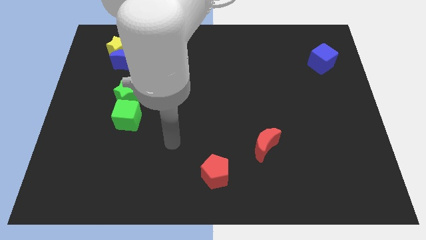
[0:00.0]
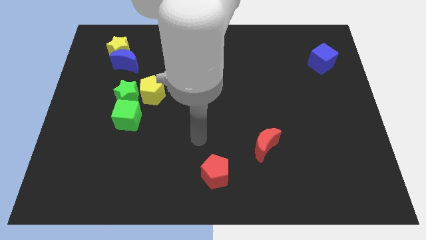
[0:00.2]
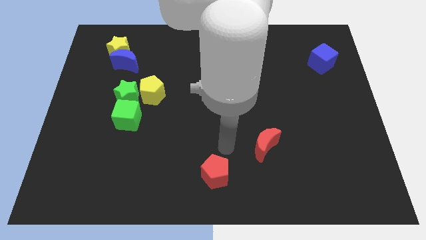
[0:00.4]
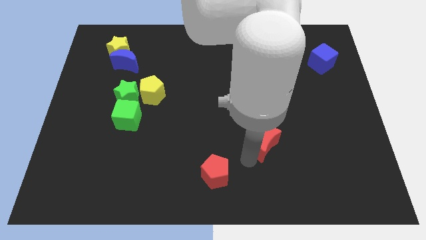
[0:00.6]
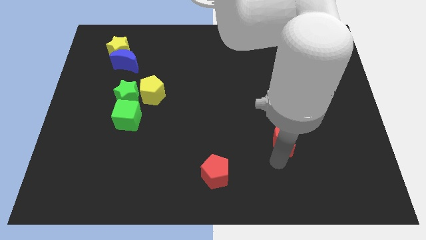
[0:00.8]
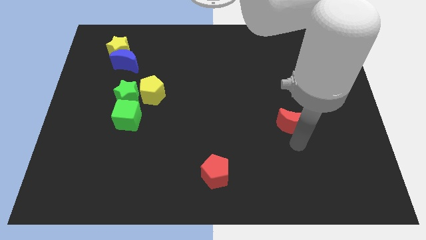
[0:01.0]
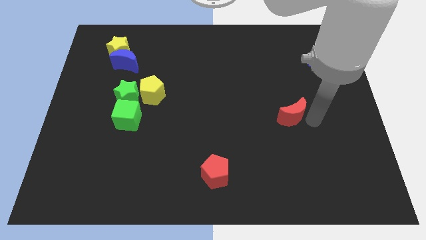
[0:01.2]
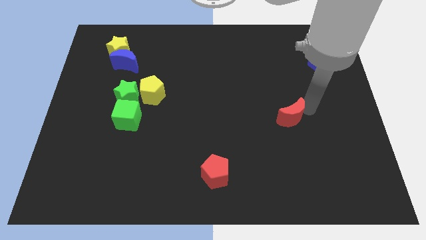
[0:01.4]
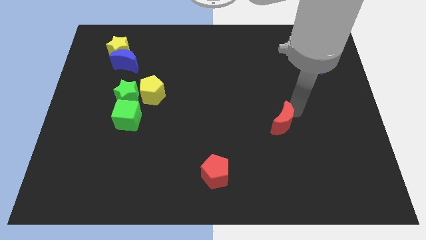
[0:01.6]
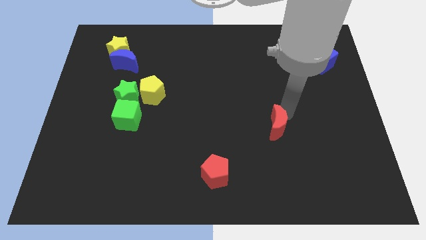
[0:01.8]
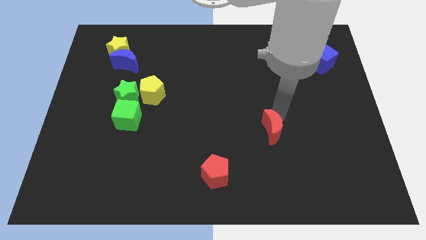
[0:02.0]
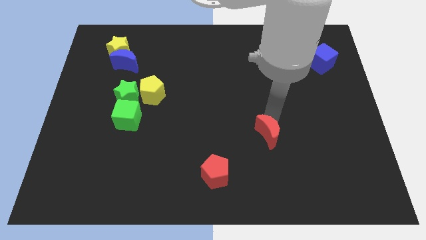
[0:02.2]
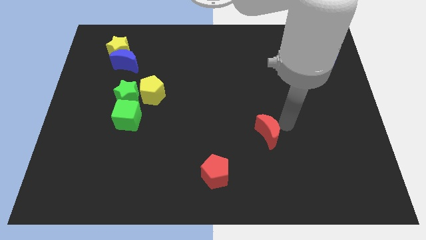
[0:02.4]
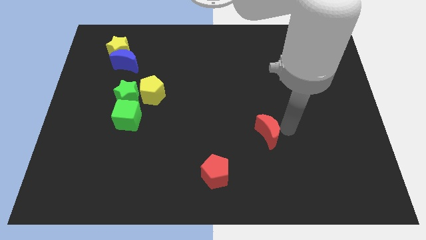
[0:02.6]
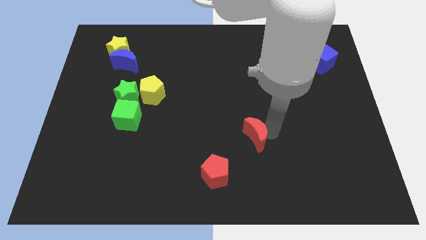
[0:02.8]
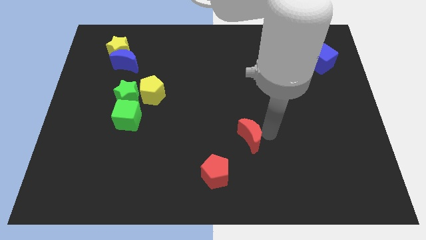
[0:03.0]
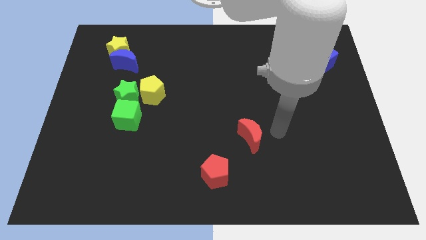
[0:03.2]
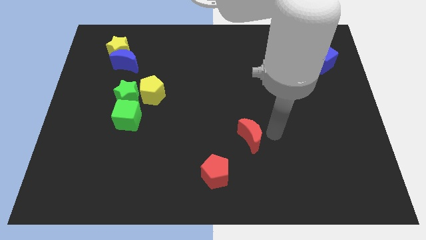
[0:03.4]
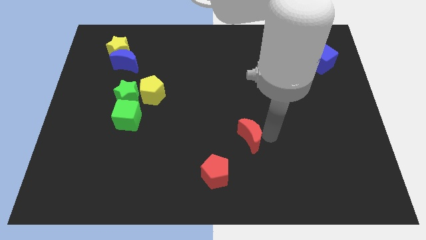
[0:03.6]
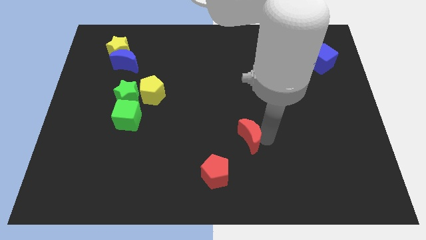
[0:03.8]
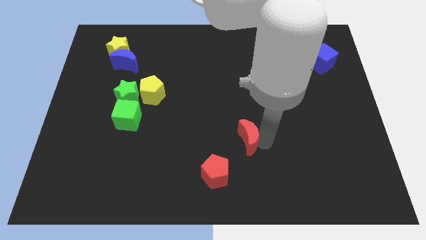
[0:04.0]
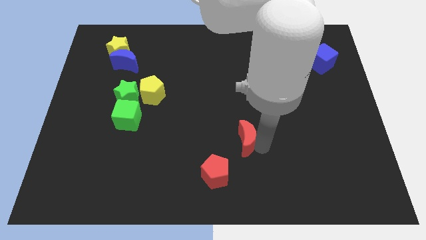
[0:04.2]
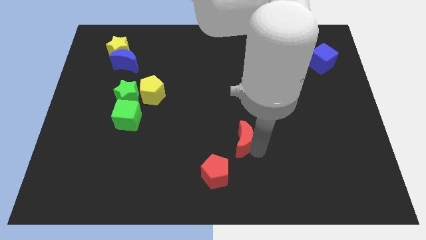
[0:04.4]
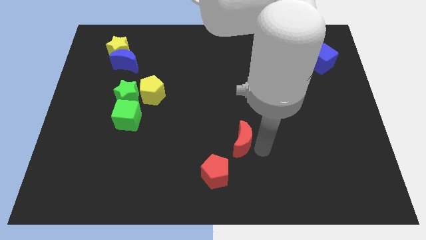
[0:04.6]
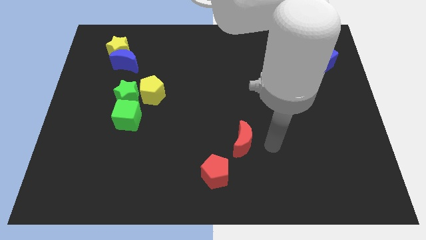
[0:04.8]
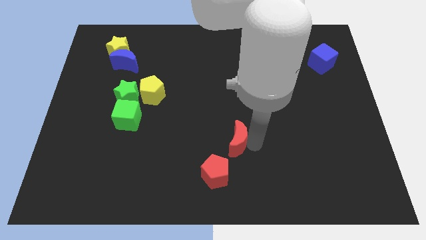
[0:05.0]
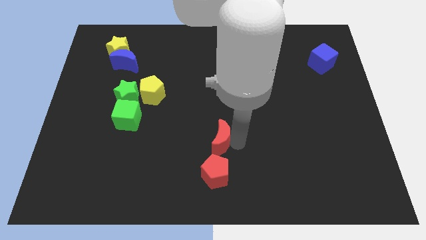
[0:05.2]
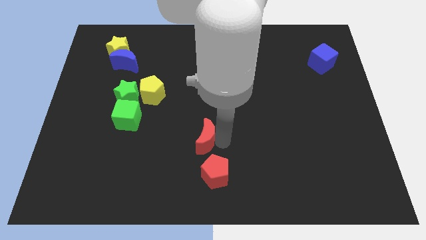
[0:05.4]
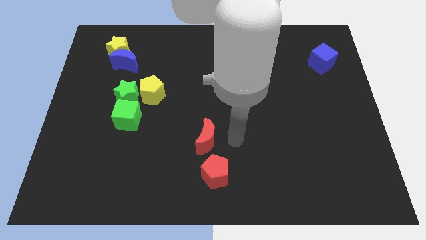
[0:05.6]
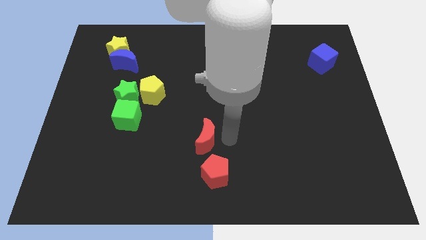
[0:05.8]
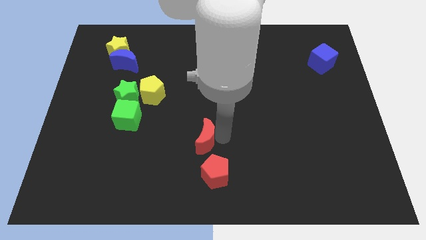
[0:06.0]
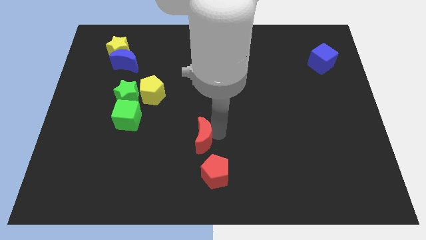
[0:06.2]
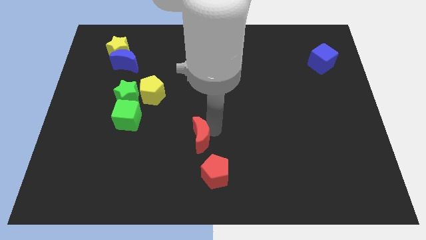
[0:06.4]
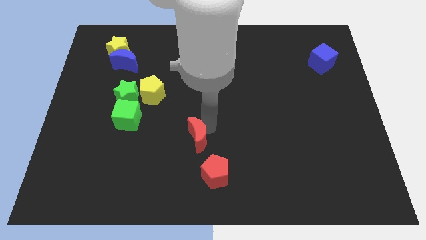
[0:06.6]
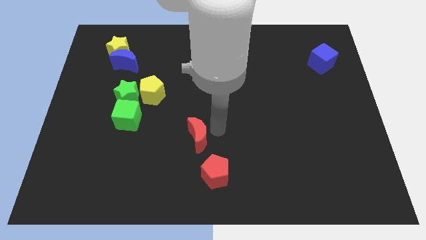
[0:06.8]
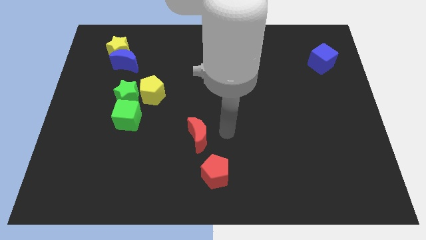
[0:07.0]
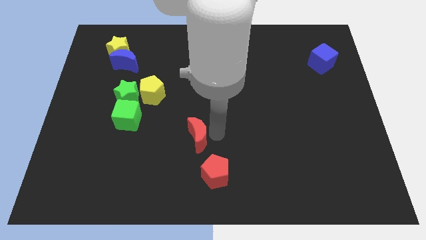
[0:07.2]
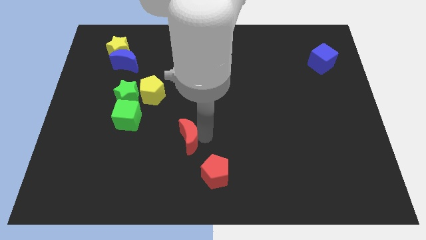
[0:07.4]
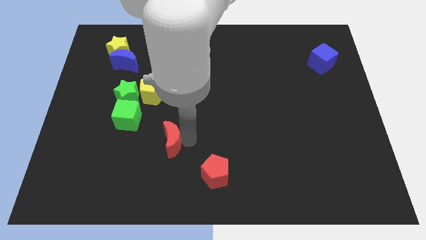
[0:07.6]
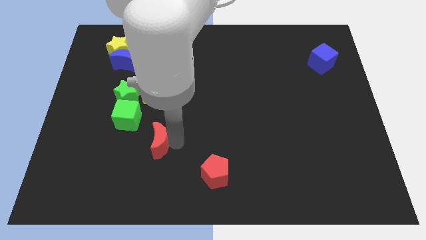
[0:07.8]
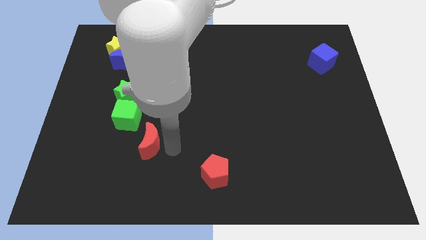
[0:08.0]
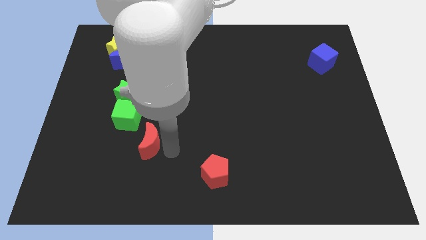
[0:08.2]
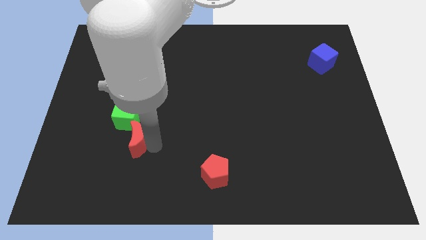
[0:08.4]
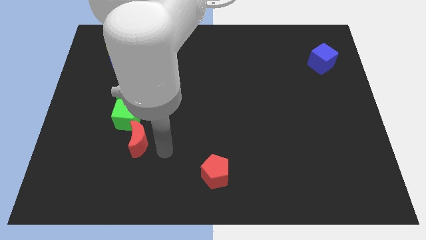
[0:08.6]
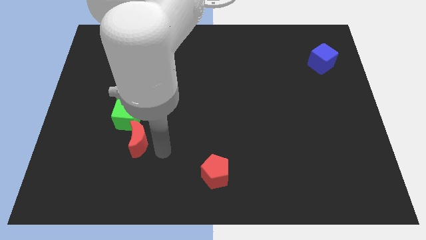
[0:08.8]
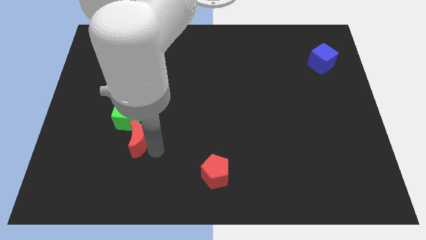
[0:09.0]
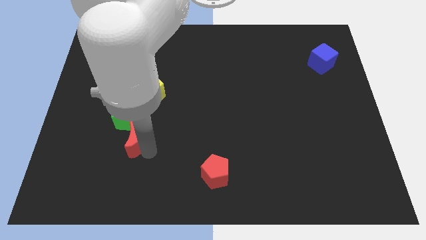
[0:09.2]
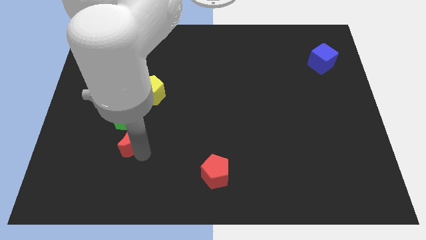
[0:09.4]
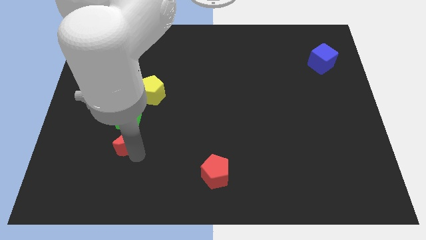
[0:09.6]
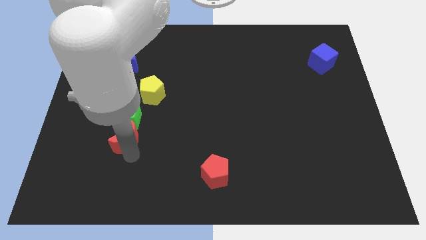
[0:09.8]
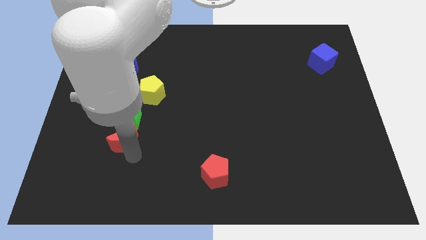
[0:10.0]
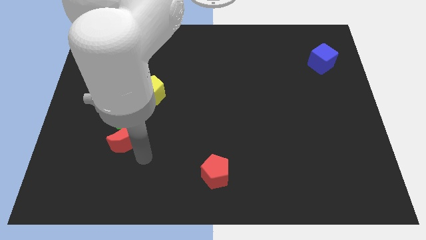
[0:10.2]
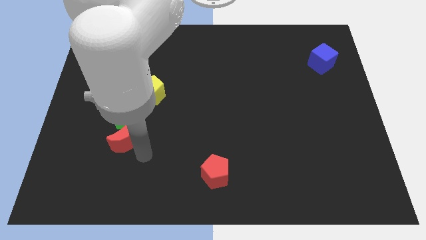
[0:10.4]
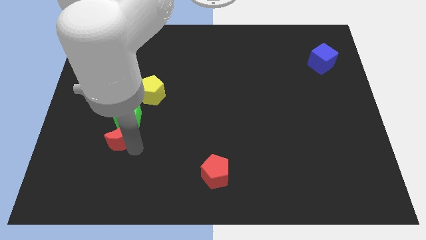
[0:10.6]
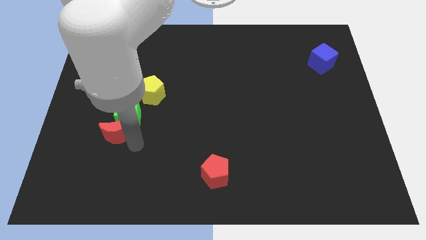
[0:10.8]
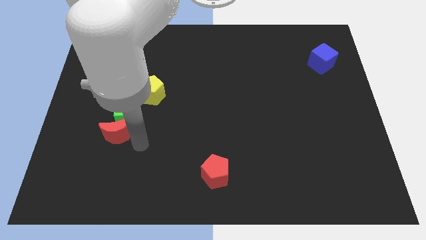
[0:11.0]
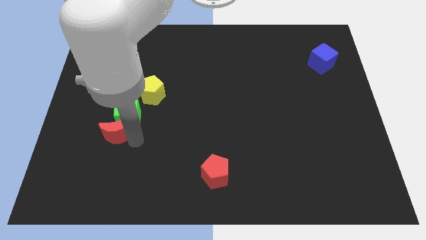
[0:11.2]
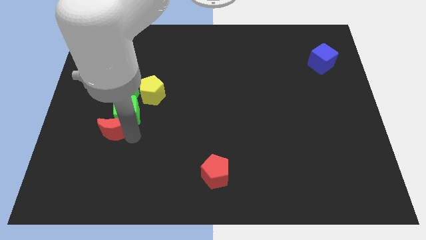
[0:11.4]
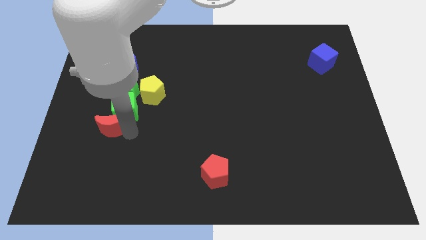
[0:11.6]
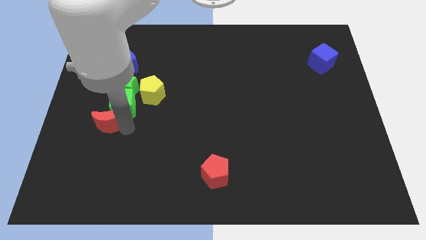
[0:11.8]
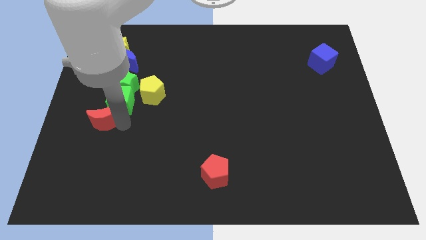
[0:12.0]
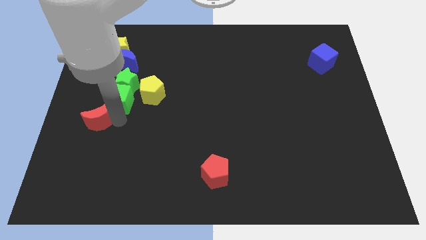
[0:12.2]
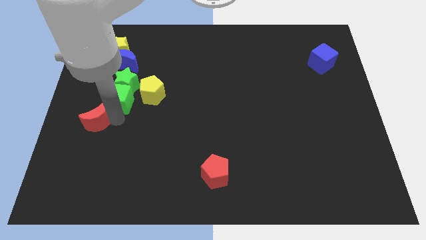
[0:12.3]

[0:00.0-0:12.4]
slide the red moon to the center left

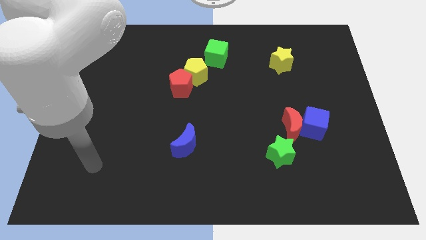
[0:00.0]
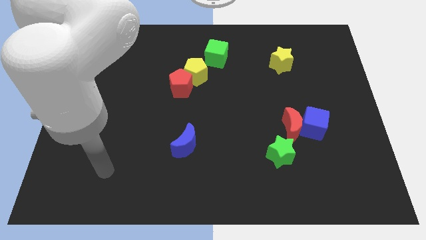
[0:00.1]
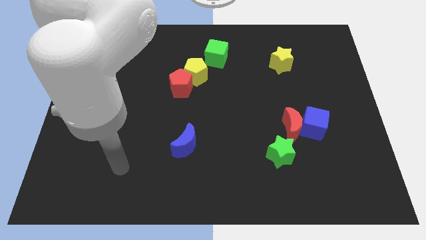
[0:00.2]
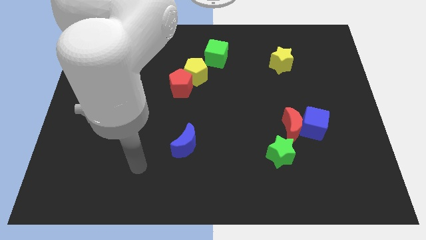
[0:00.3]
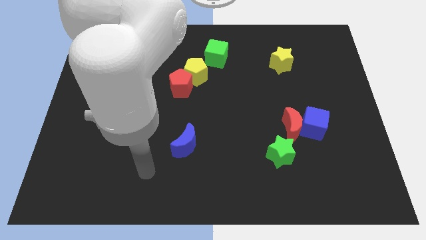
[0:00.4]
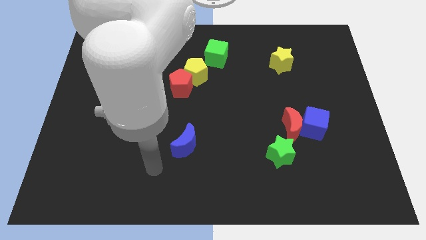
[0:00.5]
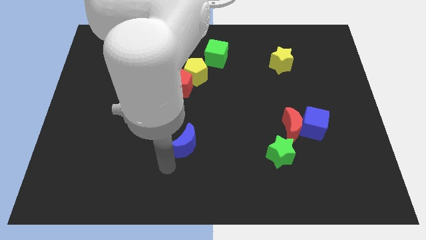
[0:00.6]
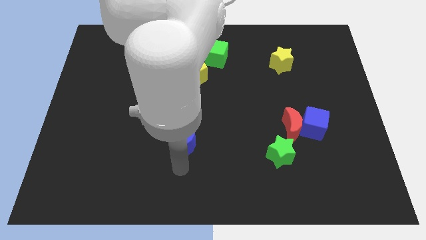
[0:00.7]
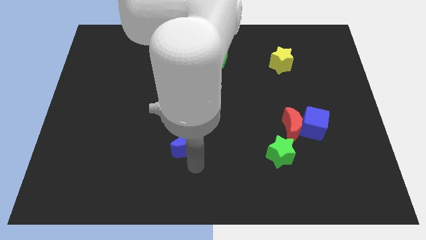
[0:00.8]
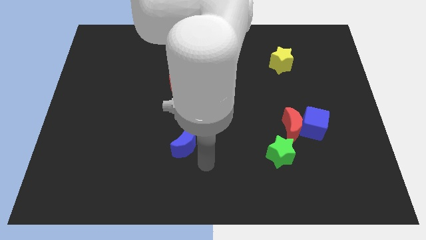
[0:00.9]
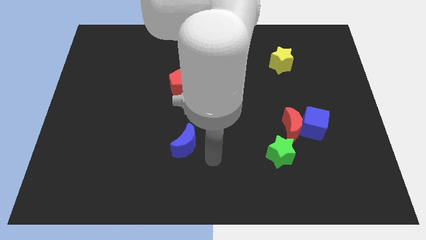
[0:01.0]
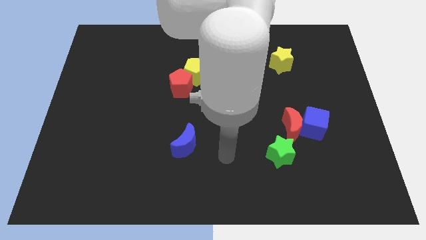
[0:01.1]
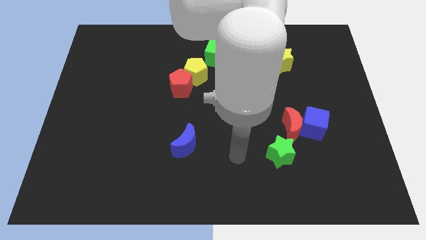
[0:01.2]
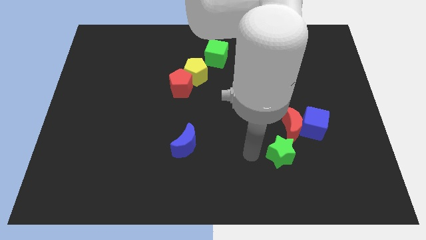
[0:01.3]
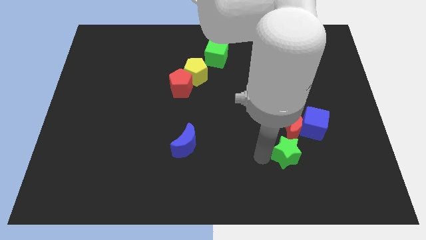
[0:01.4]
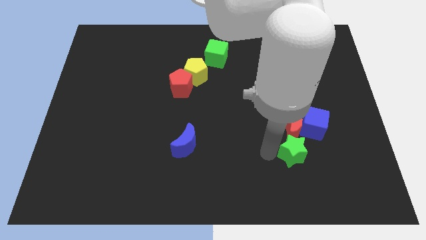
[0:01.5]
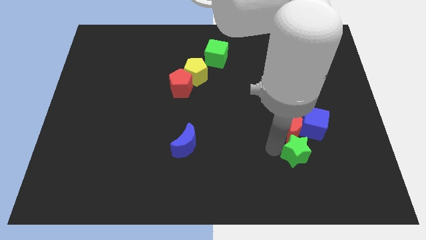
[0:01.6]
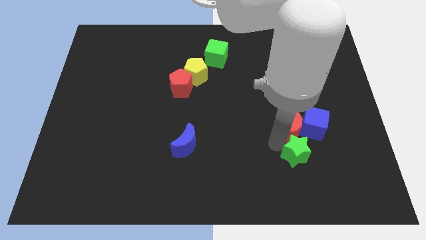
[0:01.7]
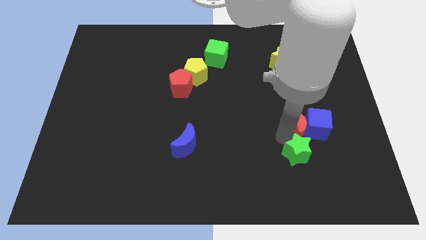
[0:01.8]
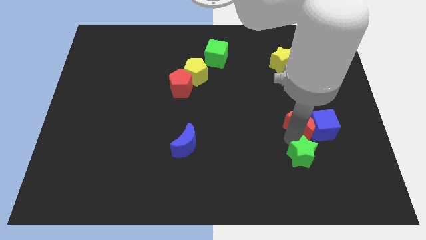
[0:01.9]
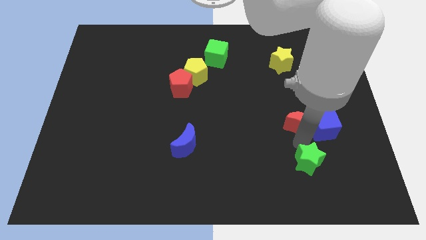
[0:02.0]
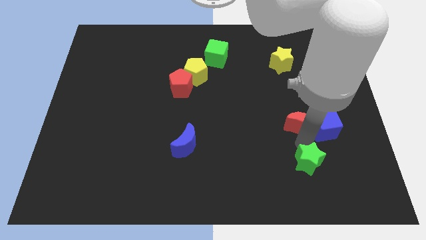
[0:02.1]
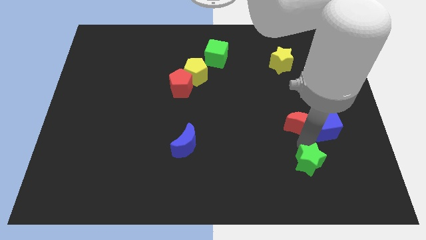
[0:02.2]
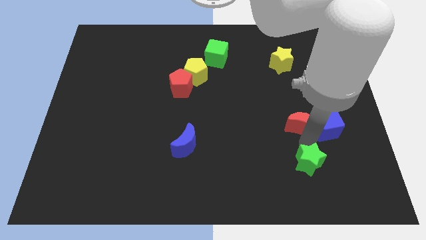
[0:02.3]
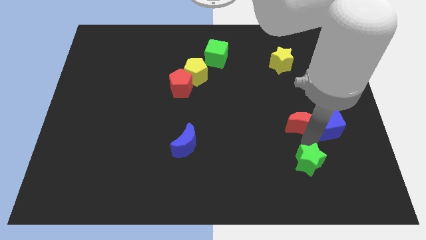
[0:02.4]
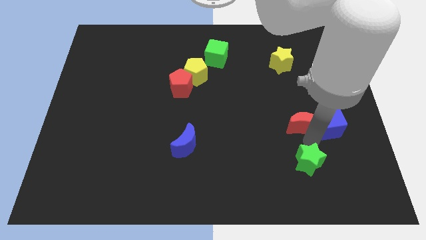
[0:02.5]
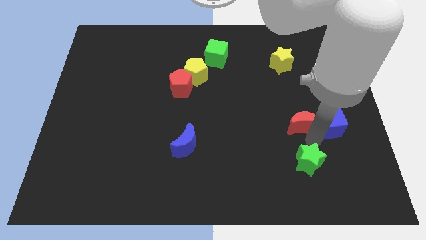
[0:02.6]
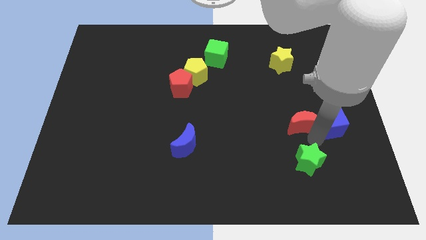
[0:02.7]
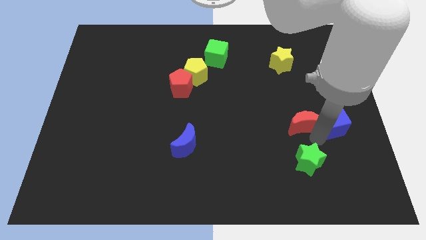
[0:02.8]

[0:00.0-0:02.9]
push the blue cube to the center right
